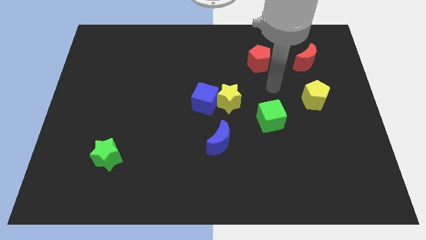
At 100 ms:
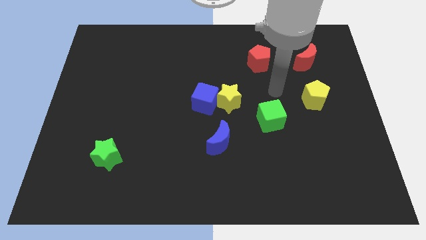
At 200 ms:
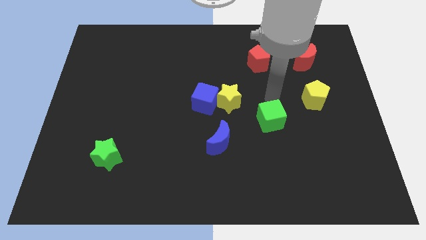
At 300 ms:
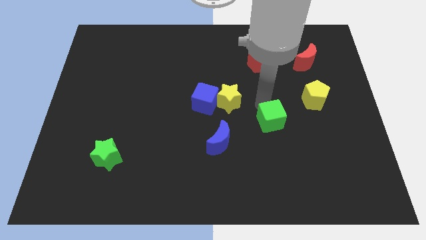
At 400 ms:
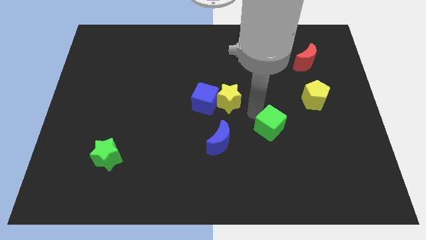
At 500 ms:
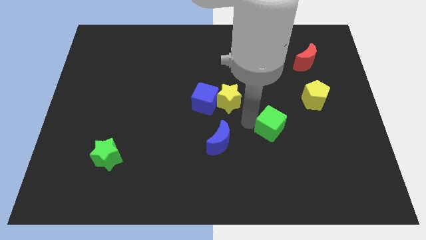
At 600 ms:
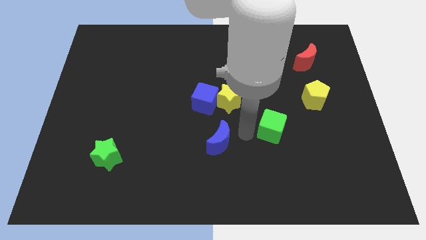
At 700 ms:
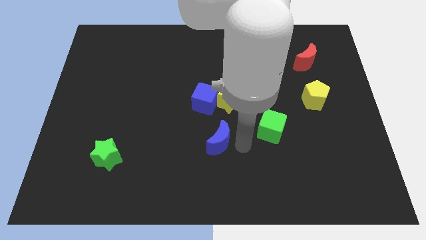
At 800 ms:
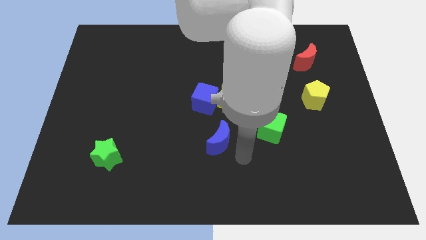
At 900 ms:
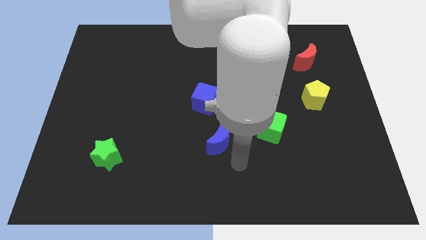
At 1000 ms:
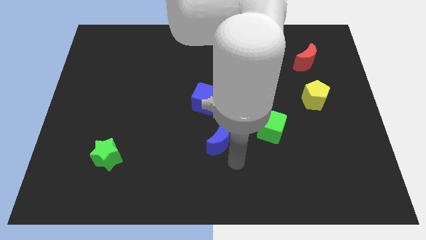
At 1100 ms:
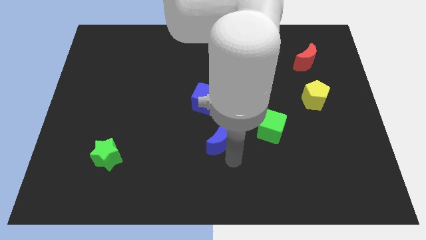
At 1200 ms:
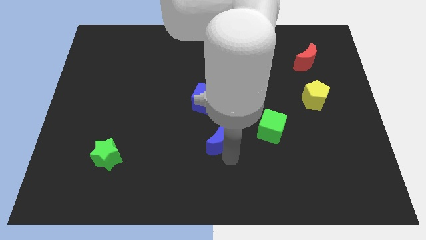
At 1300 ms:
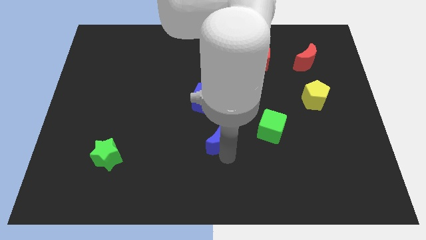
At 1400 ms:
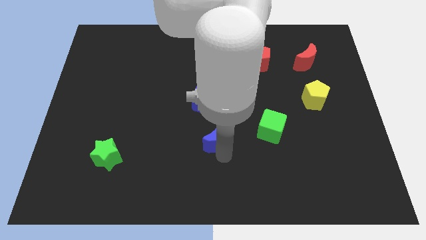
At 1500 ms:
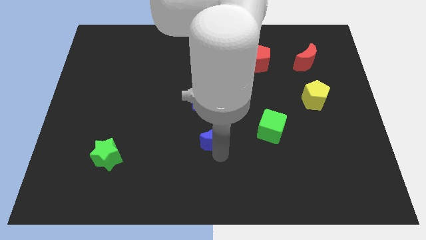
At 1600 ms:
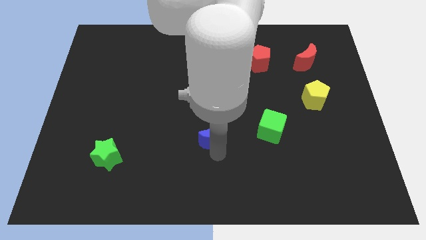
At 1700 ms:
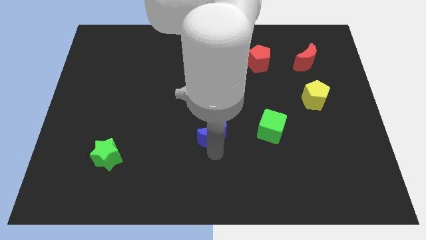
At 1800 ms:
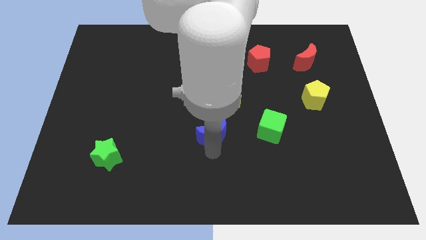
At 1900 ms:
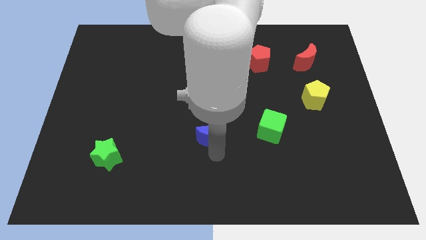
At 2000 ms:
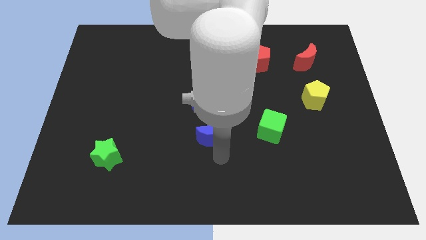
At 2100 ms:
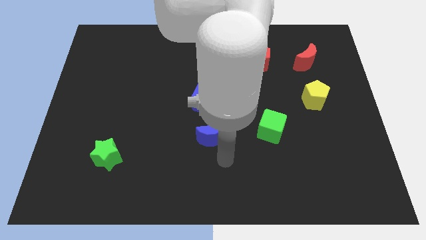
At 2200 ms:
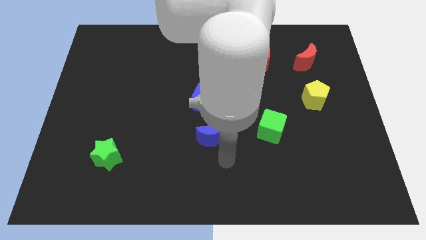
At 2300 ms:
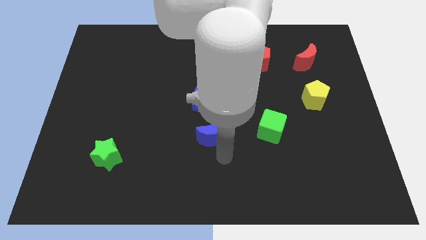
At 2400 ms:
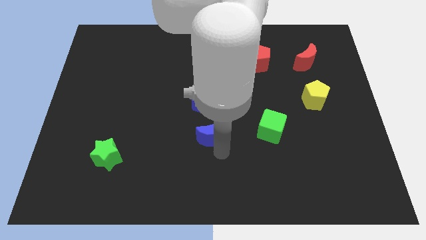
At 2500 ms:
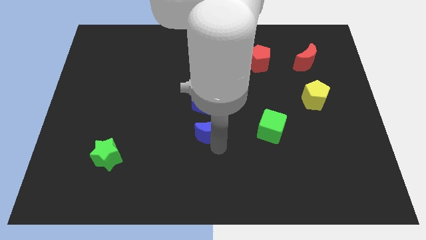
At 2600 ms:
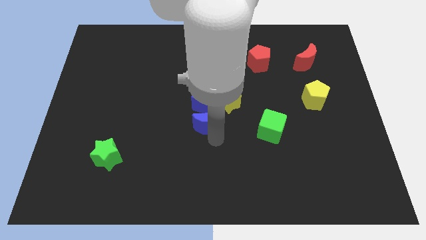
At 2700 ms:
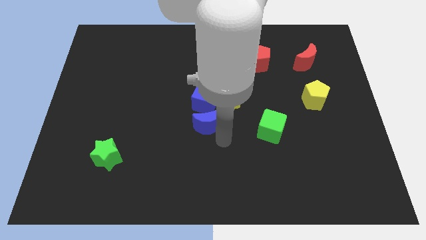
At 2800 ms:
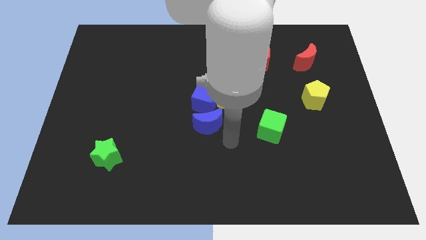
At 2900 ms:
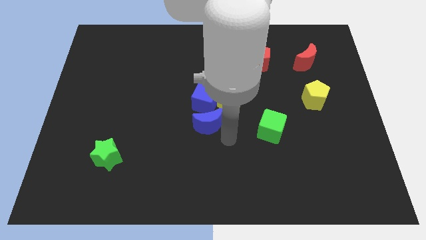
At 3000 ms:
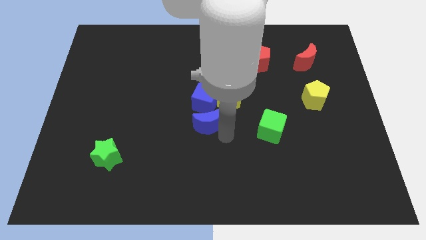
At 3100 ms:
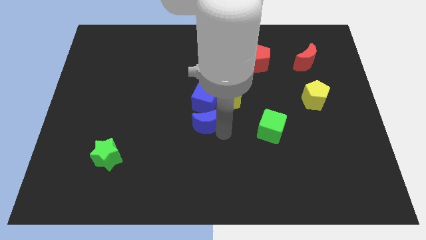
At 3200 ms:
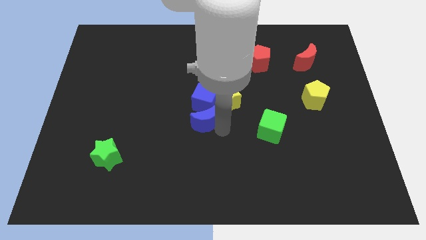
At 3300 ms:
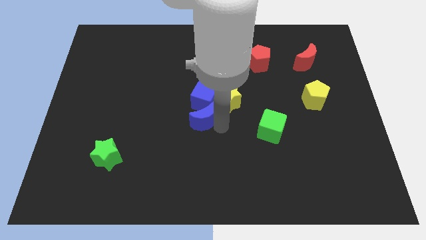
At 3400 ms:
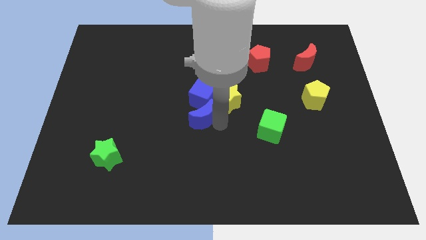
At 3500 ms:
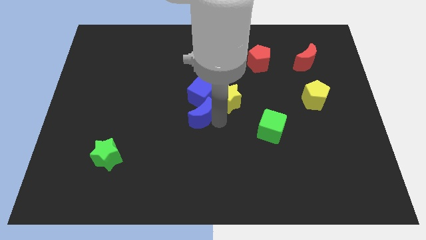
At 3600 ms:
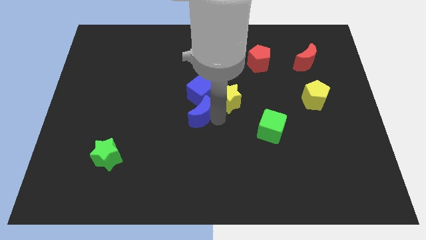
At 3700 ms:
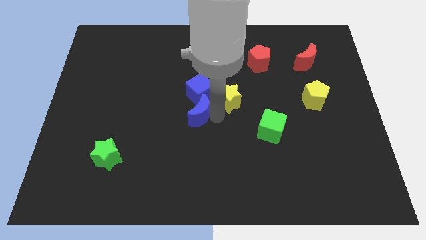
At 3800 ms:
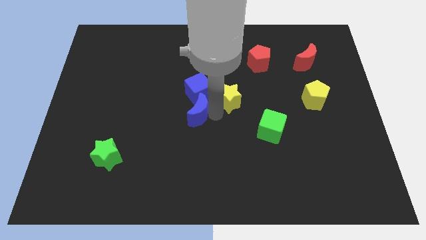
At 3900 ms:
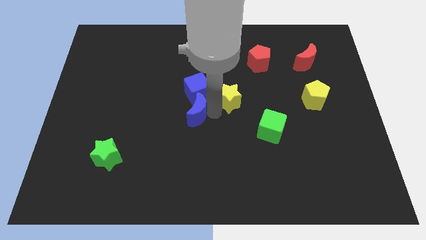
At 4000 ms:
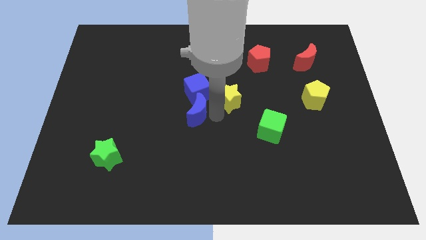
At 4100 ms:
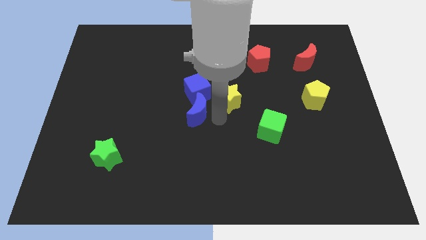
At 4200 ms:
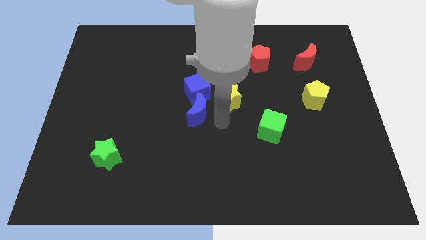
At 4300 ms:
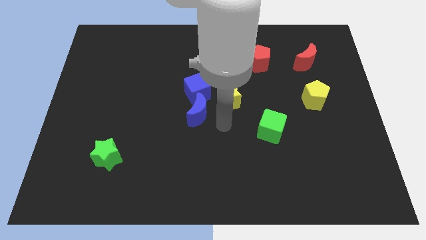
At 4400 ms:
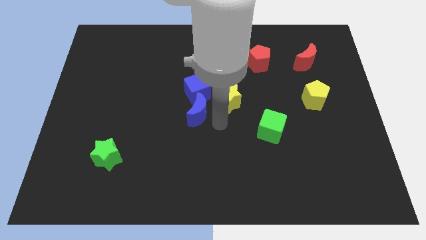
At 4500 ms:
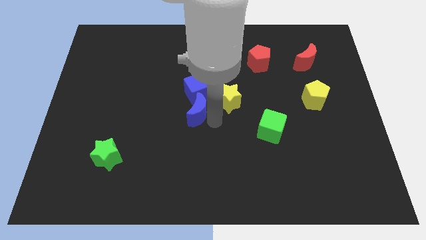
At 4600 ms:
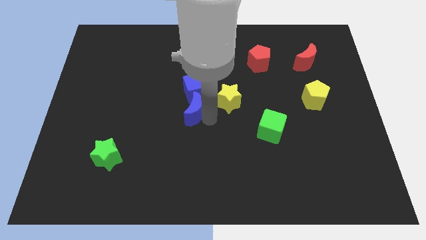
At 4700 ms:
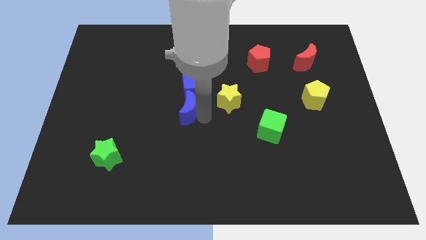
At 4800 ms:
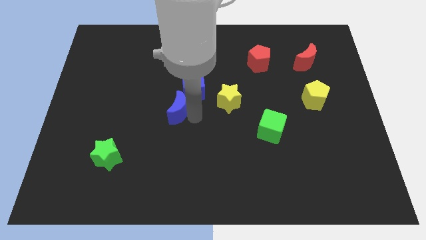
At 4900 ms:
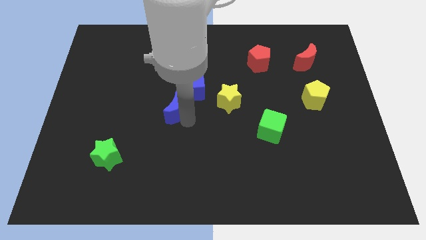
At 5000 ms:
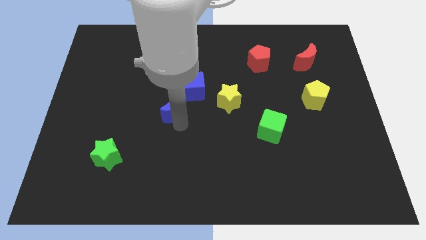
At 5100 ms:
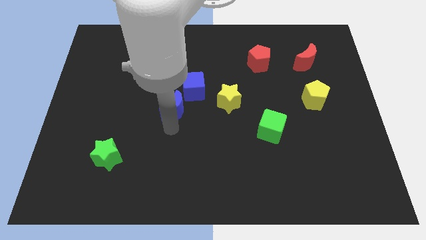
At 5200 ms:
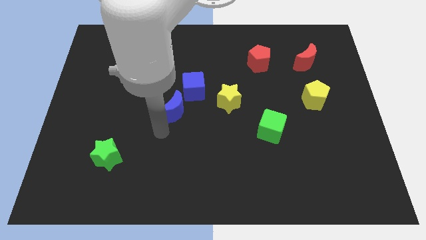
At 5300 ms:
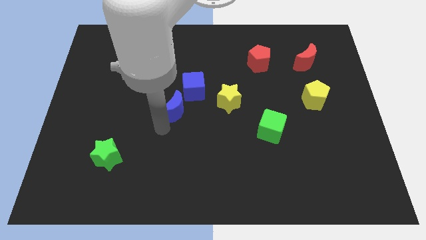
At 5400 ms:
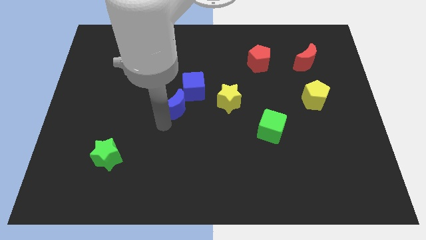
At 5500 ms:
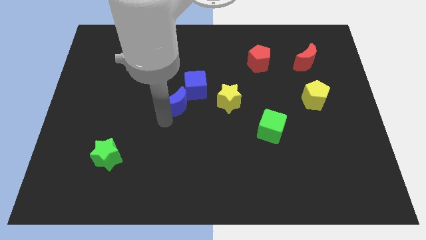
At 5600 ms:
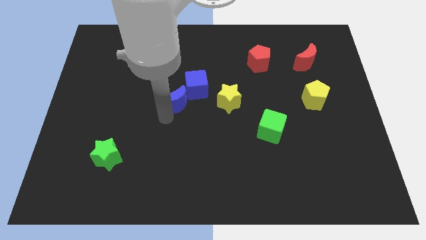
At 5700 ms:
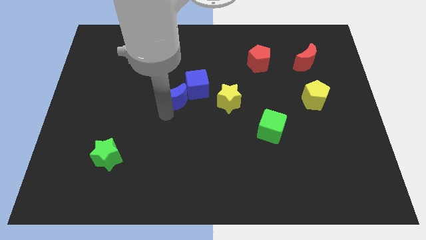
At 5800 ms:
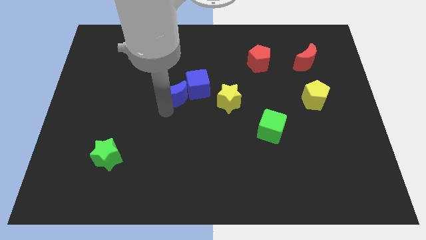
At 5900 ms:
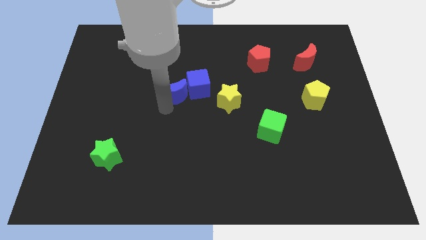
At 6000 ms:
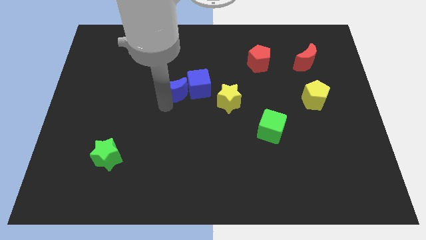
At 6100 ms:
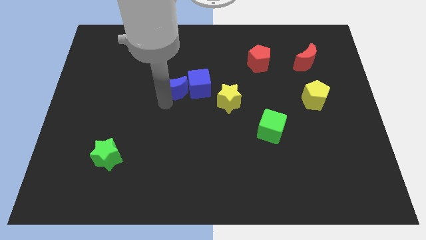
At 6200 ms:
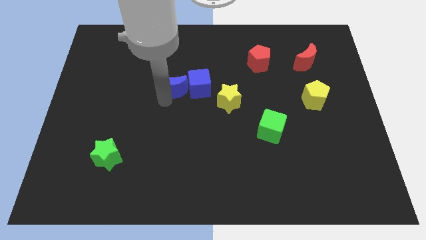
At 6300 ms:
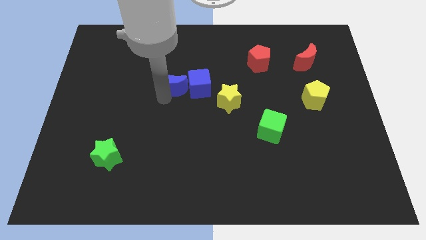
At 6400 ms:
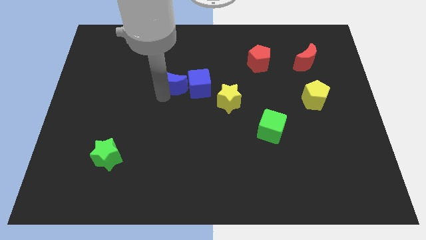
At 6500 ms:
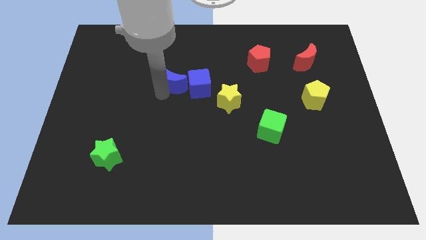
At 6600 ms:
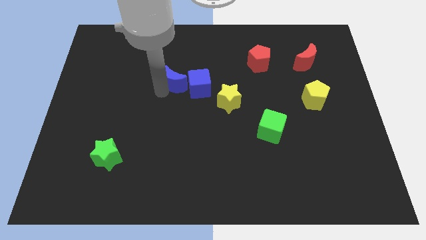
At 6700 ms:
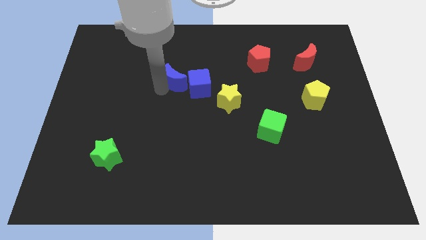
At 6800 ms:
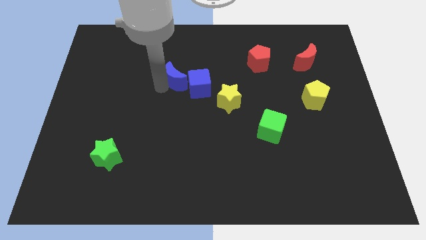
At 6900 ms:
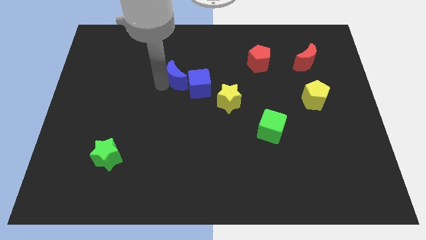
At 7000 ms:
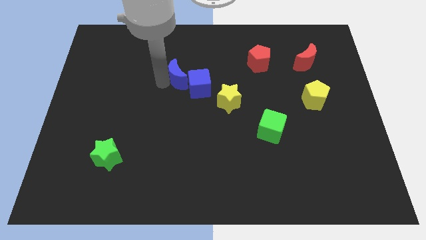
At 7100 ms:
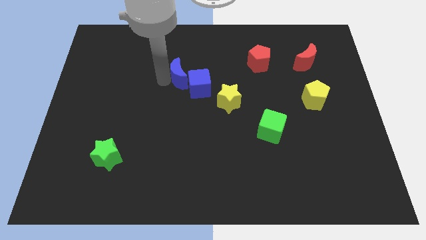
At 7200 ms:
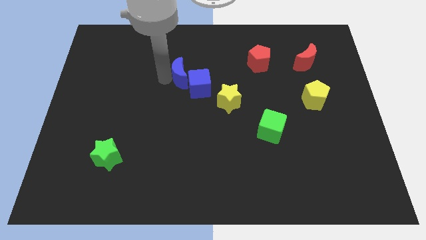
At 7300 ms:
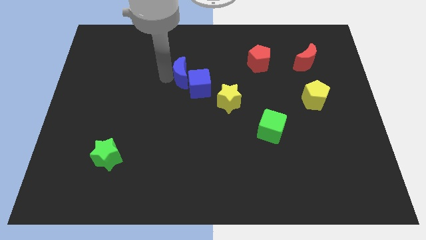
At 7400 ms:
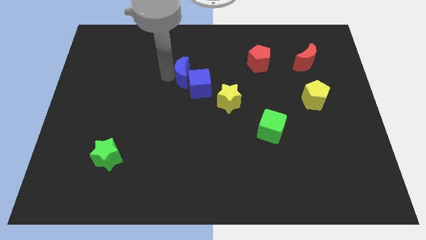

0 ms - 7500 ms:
put the blue moon to the top of the blue cube
